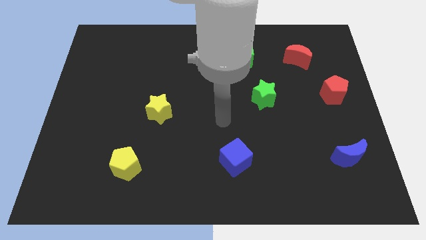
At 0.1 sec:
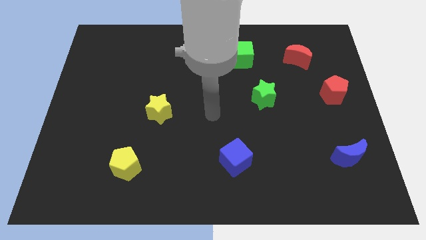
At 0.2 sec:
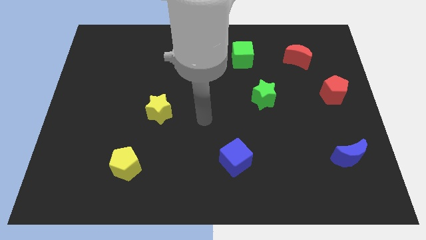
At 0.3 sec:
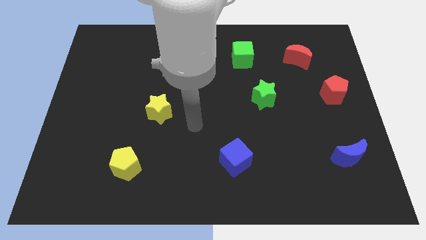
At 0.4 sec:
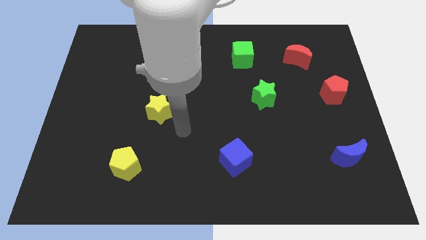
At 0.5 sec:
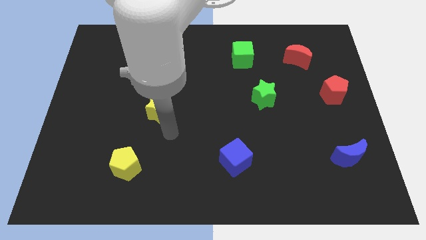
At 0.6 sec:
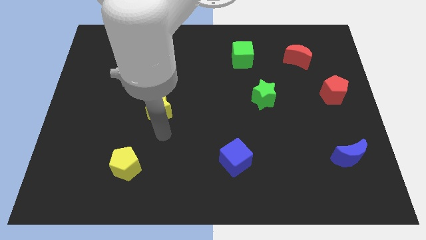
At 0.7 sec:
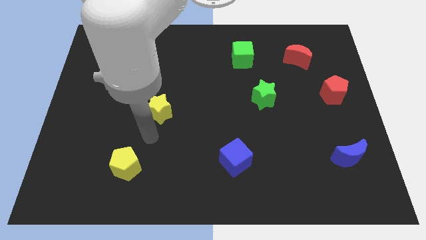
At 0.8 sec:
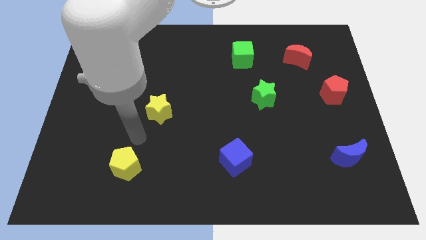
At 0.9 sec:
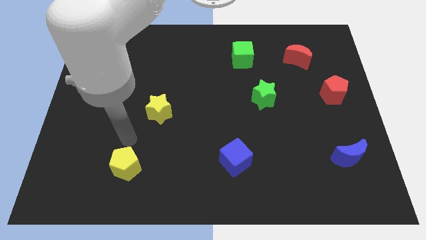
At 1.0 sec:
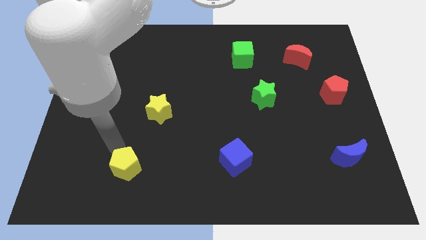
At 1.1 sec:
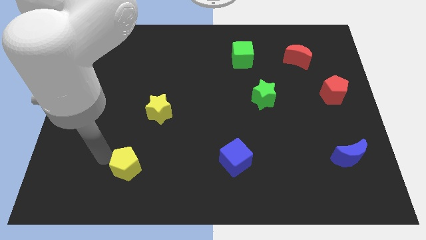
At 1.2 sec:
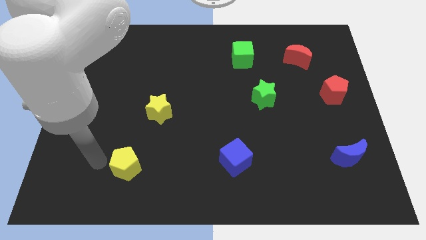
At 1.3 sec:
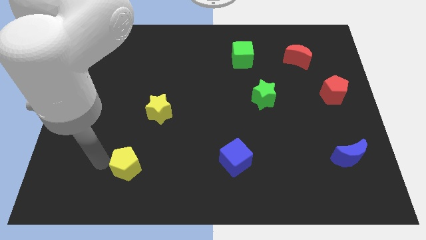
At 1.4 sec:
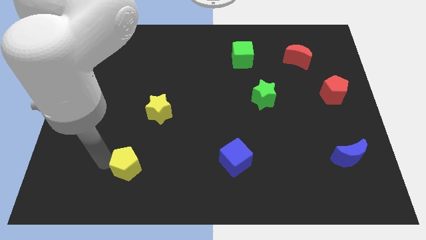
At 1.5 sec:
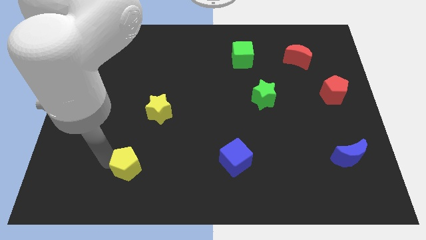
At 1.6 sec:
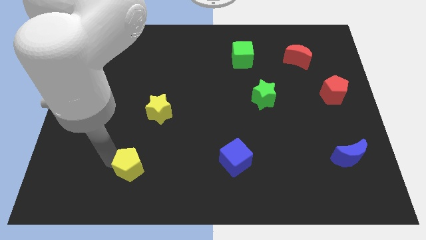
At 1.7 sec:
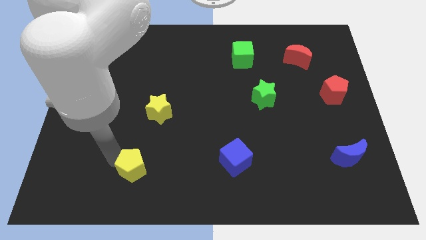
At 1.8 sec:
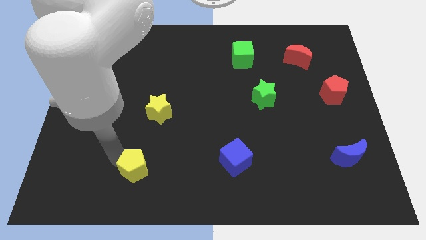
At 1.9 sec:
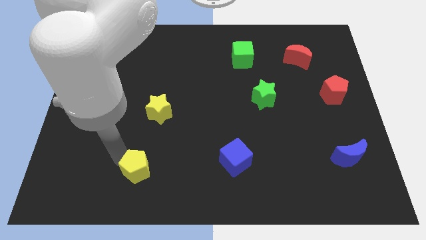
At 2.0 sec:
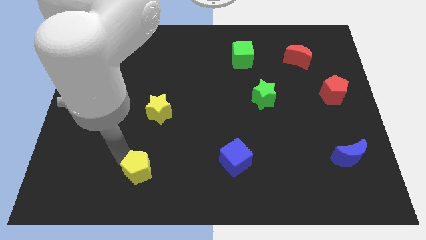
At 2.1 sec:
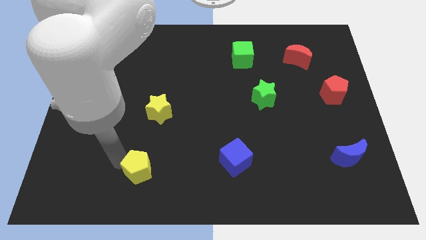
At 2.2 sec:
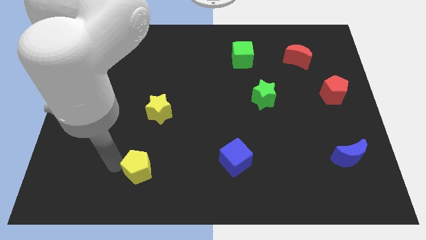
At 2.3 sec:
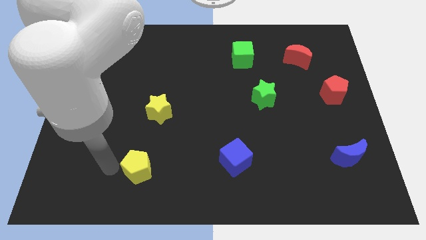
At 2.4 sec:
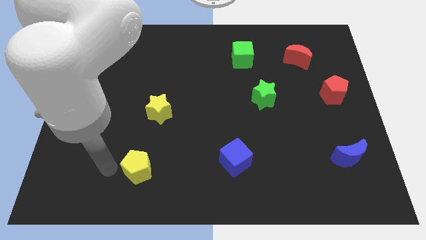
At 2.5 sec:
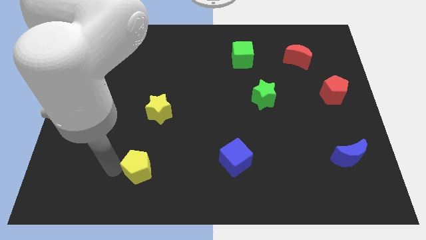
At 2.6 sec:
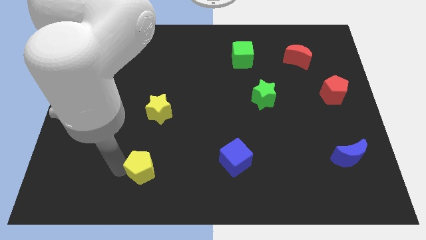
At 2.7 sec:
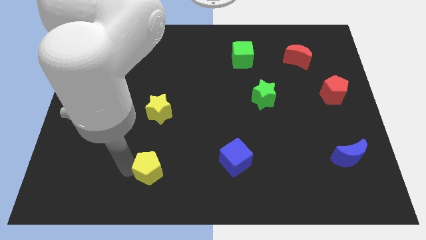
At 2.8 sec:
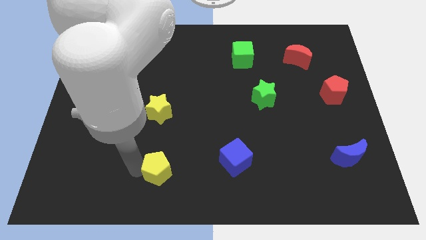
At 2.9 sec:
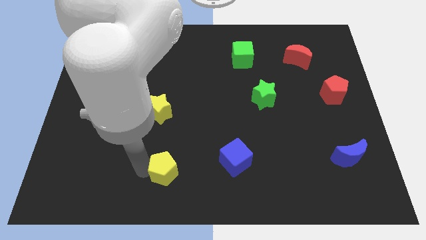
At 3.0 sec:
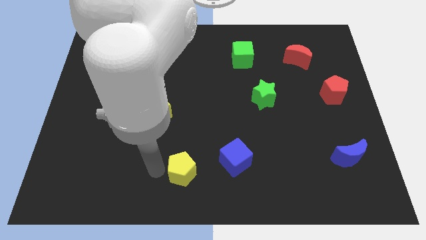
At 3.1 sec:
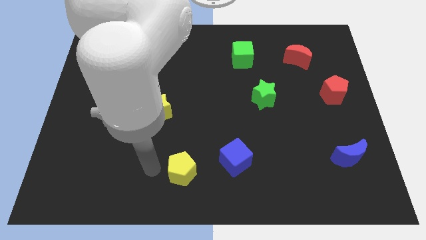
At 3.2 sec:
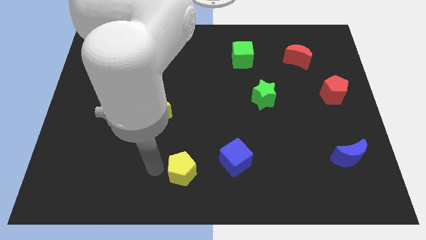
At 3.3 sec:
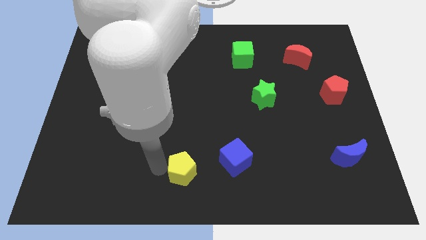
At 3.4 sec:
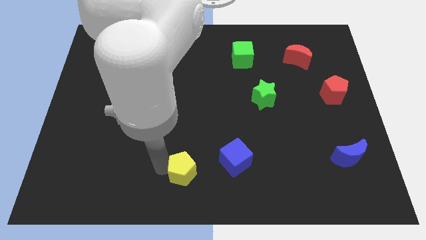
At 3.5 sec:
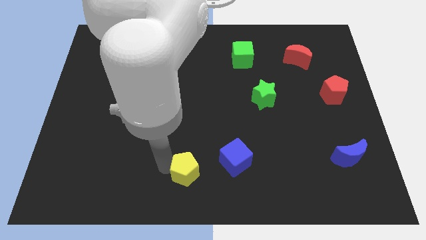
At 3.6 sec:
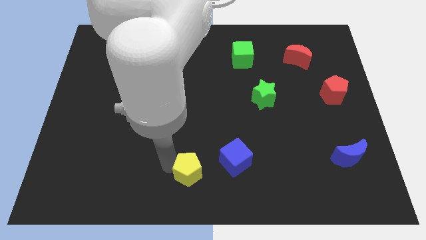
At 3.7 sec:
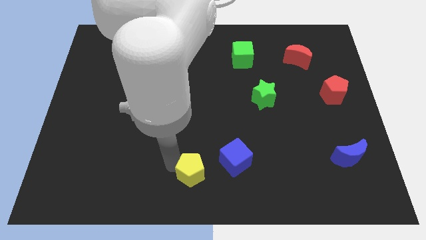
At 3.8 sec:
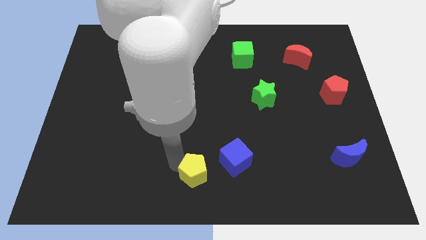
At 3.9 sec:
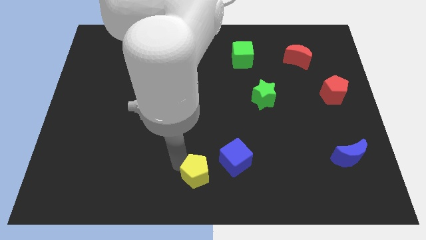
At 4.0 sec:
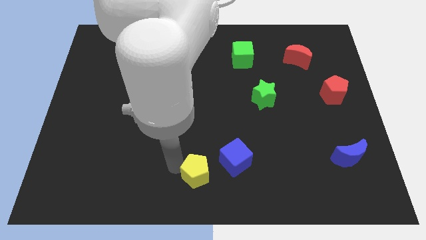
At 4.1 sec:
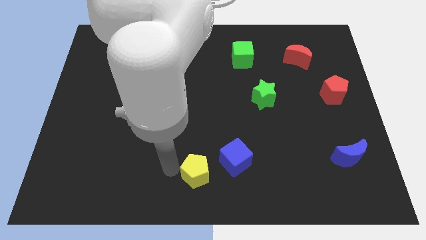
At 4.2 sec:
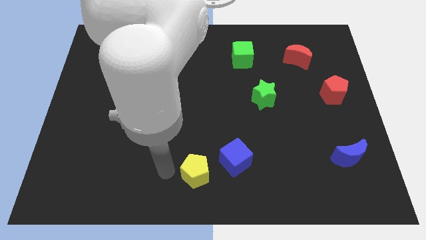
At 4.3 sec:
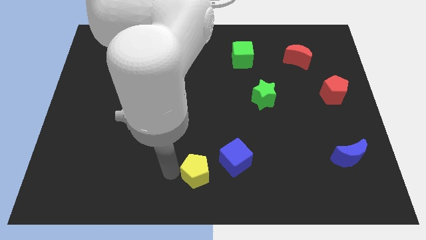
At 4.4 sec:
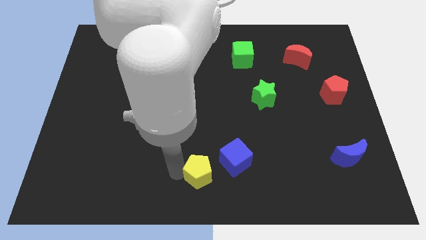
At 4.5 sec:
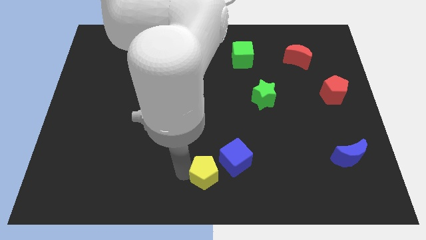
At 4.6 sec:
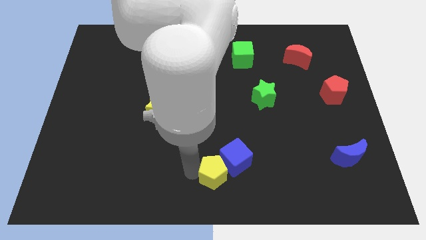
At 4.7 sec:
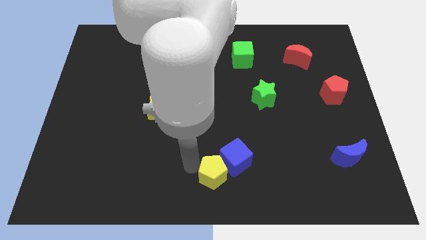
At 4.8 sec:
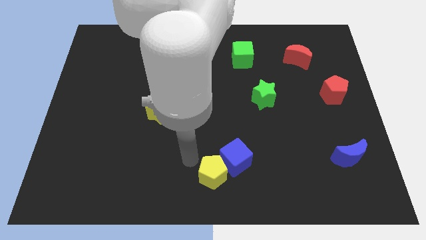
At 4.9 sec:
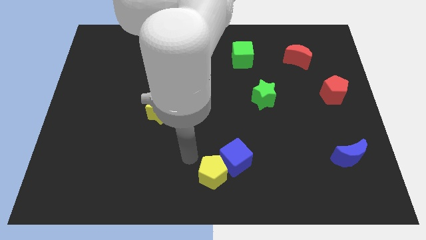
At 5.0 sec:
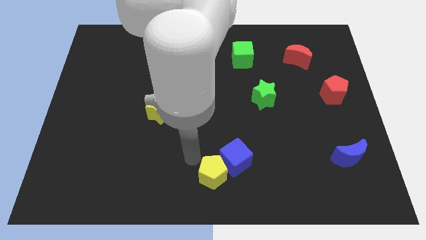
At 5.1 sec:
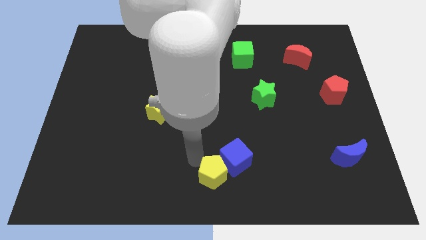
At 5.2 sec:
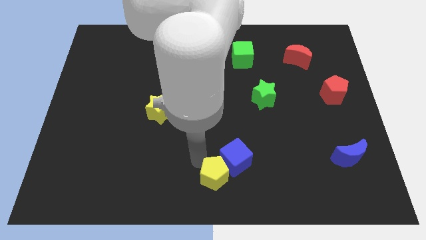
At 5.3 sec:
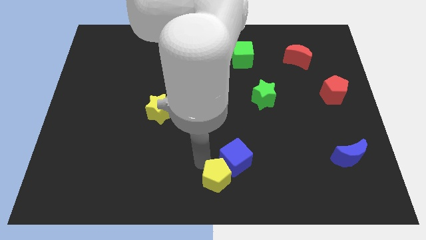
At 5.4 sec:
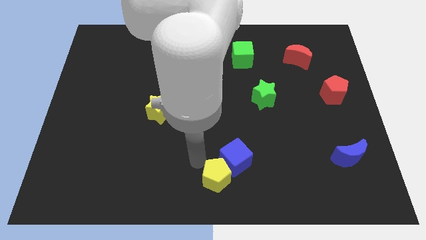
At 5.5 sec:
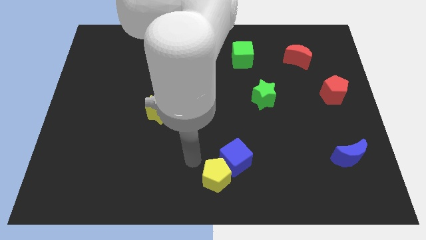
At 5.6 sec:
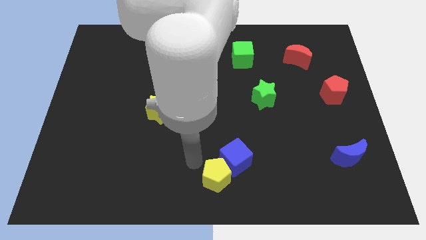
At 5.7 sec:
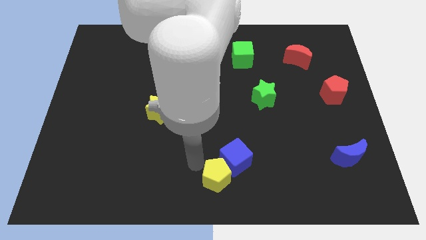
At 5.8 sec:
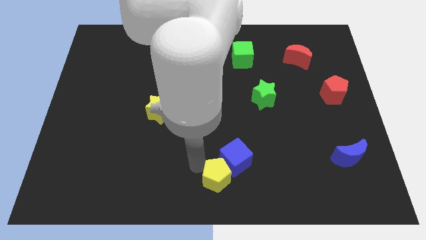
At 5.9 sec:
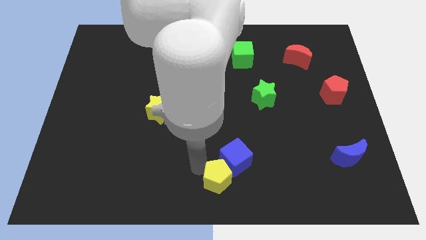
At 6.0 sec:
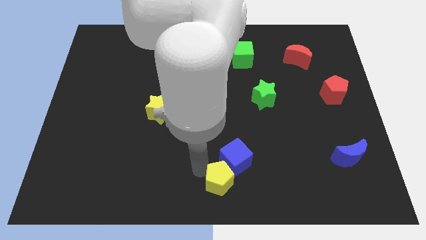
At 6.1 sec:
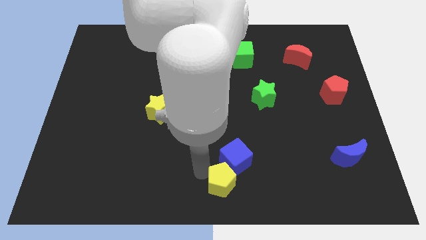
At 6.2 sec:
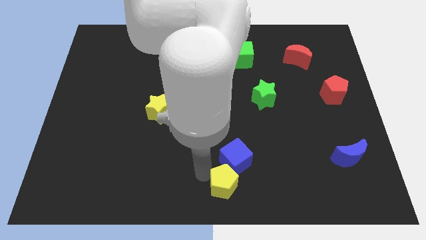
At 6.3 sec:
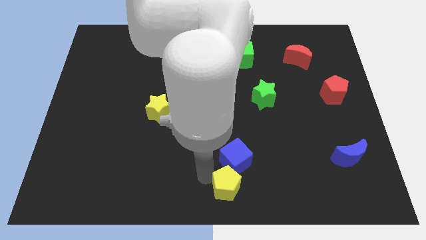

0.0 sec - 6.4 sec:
push the yellow pentagon right

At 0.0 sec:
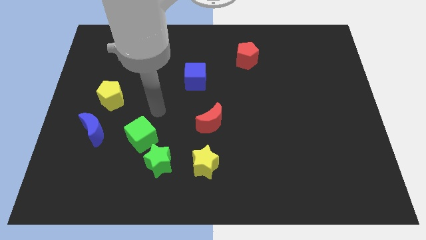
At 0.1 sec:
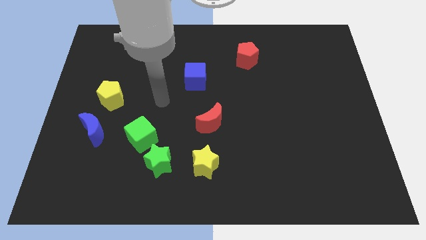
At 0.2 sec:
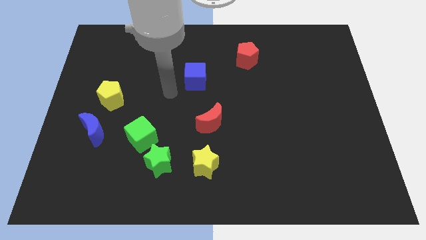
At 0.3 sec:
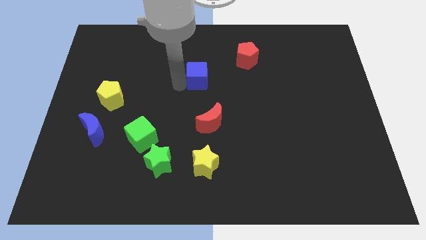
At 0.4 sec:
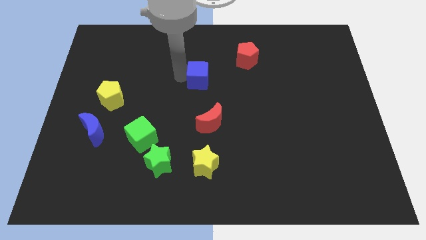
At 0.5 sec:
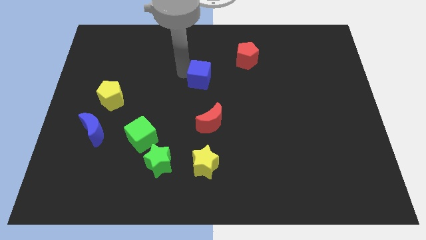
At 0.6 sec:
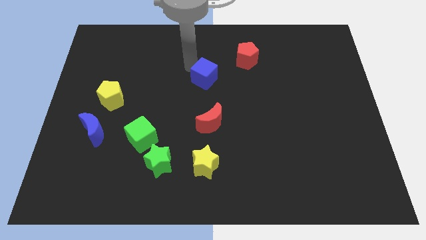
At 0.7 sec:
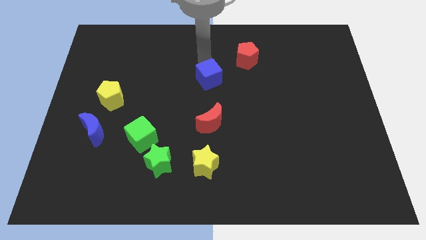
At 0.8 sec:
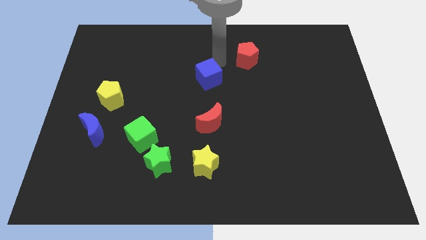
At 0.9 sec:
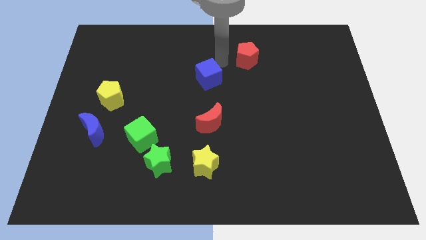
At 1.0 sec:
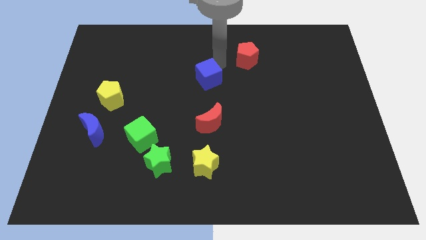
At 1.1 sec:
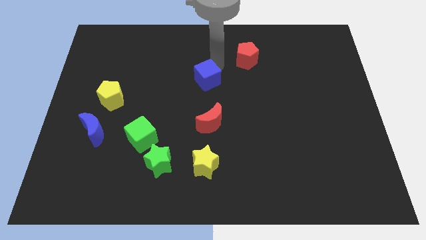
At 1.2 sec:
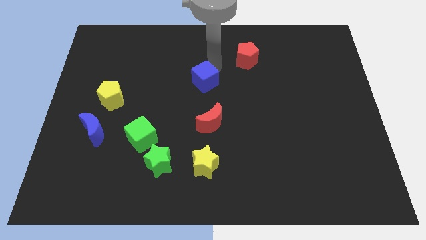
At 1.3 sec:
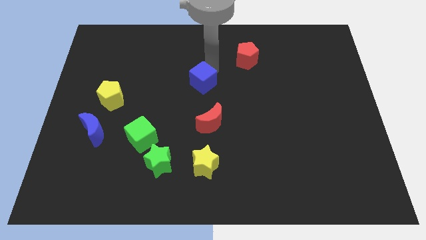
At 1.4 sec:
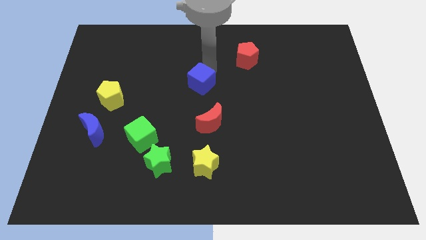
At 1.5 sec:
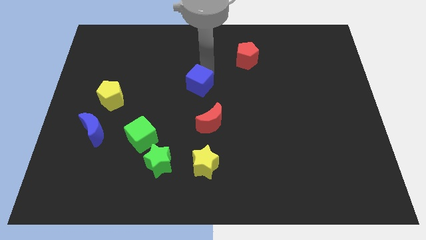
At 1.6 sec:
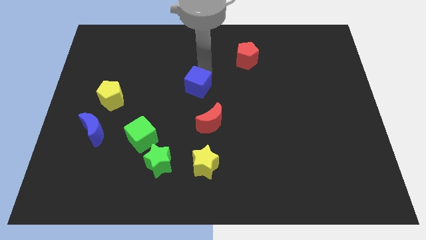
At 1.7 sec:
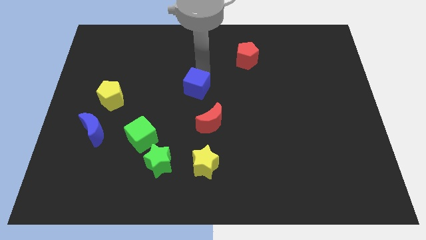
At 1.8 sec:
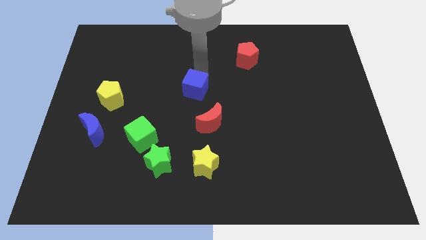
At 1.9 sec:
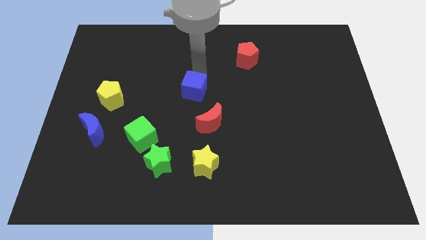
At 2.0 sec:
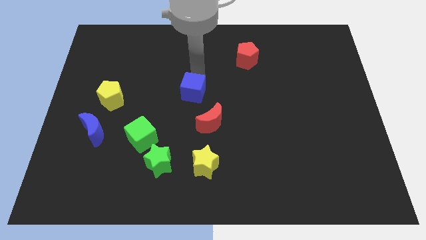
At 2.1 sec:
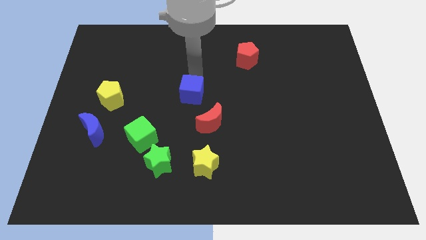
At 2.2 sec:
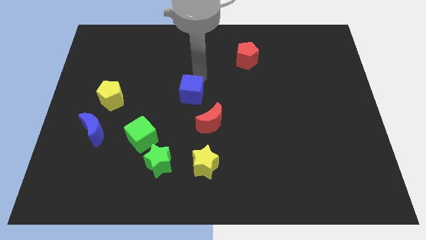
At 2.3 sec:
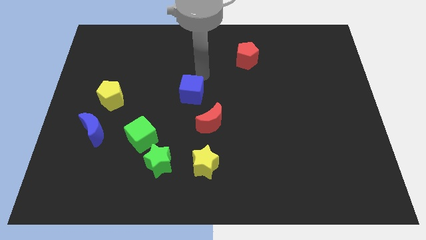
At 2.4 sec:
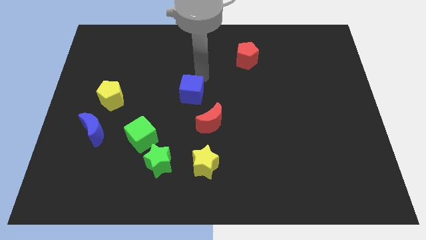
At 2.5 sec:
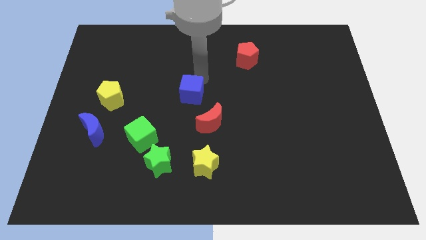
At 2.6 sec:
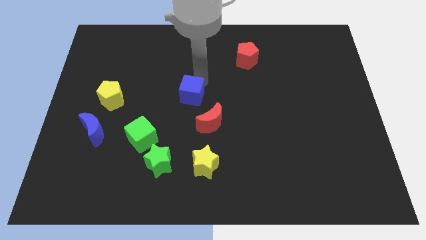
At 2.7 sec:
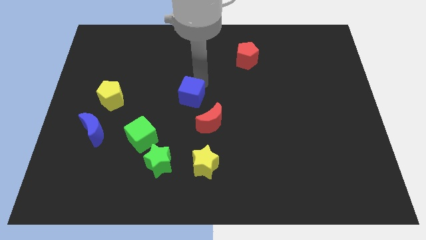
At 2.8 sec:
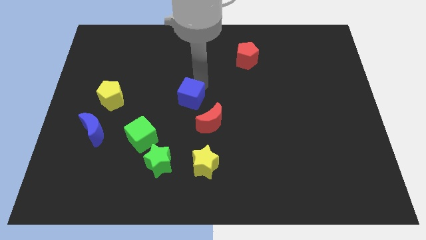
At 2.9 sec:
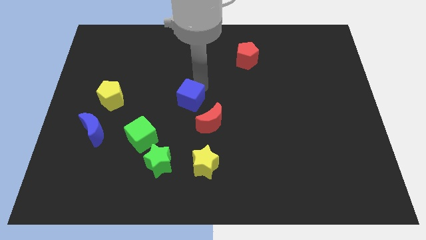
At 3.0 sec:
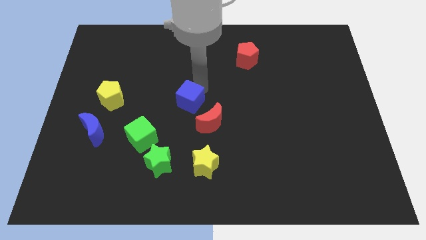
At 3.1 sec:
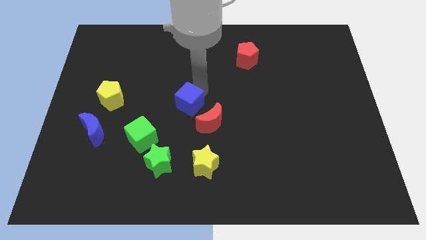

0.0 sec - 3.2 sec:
push the blue cube down a bit
